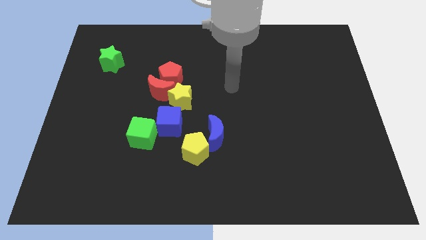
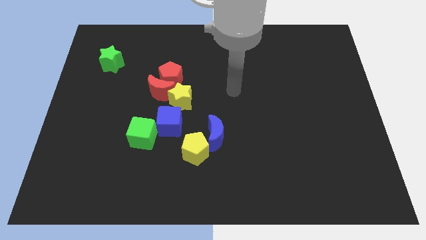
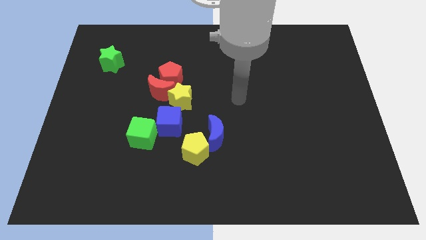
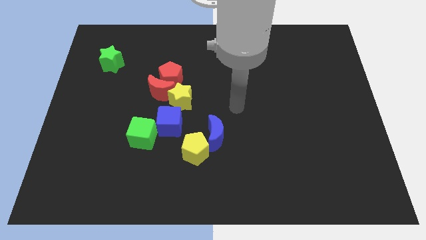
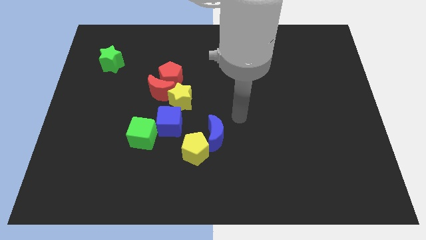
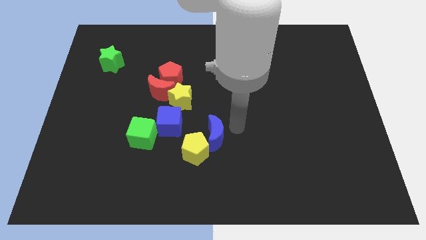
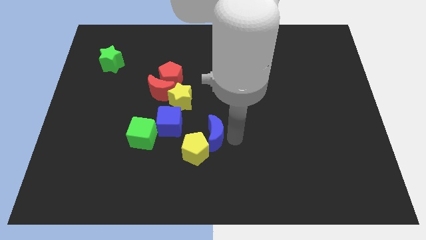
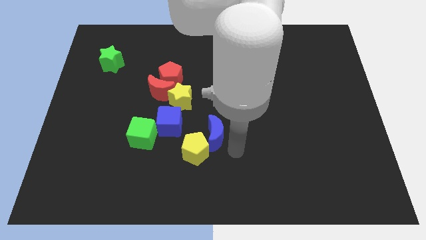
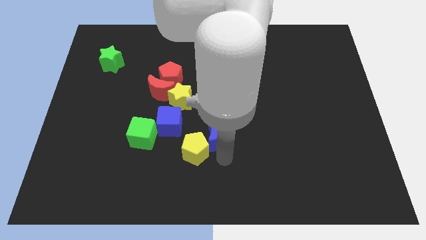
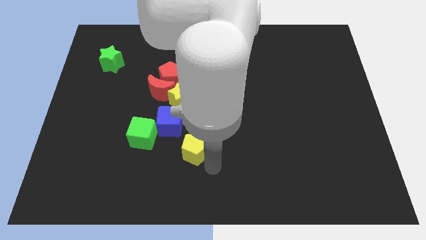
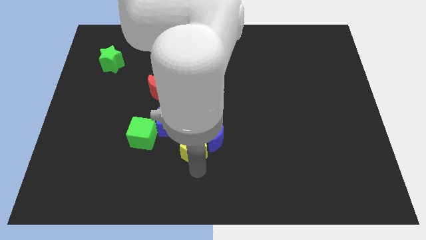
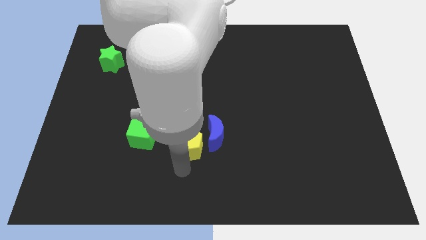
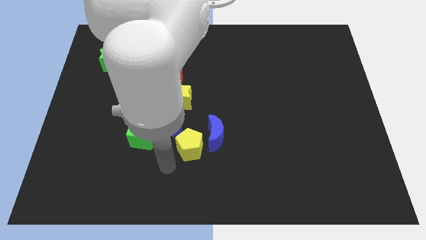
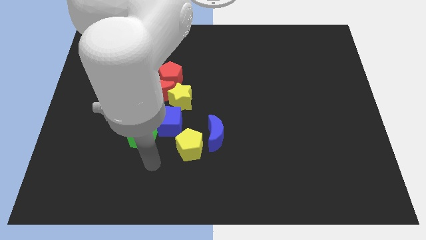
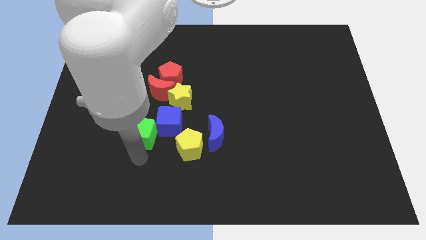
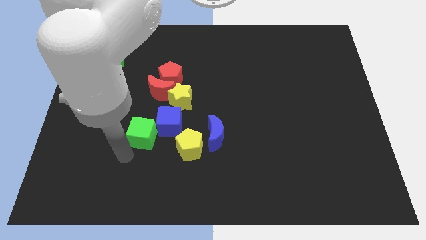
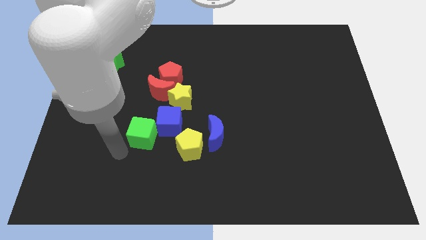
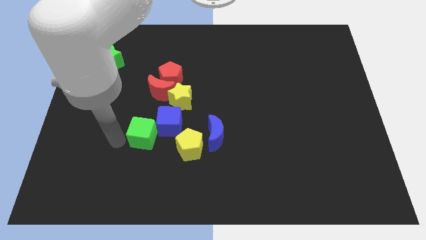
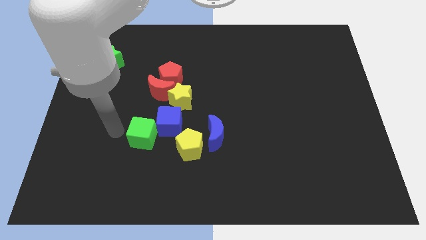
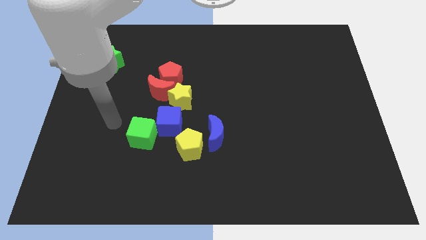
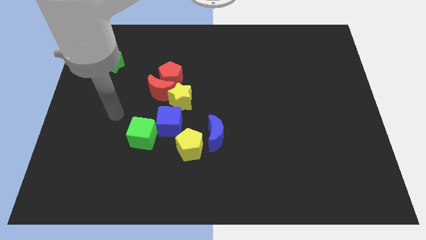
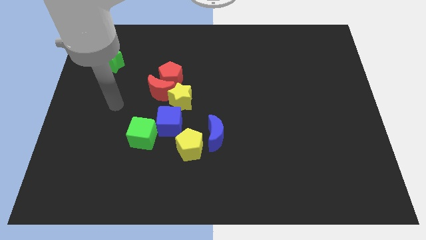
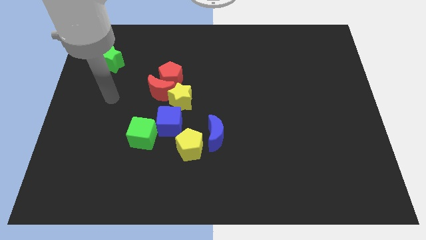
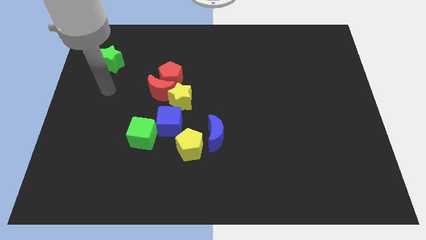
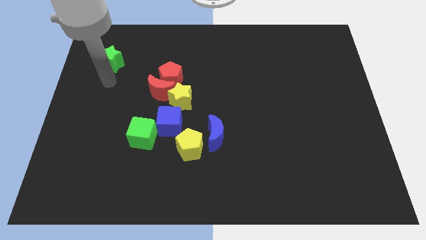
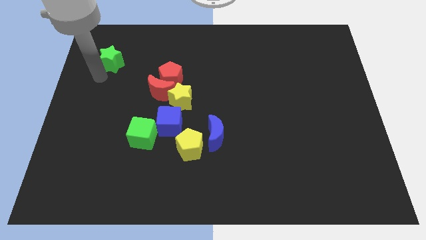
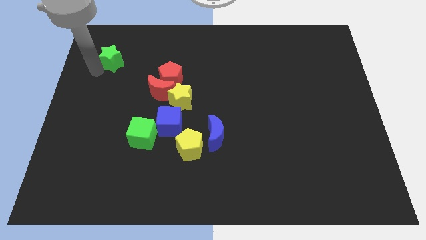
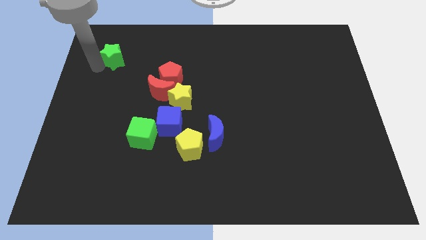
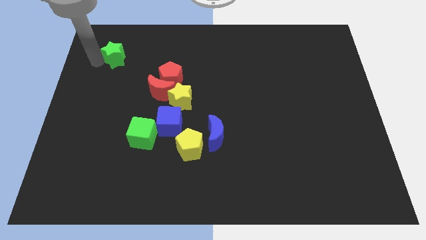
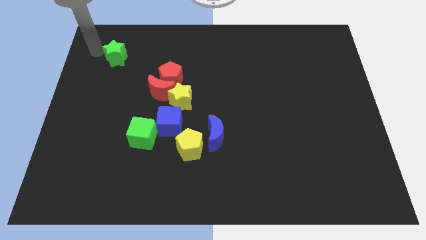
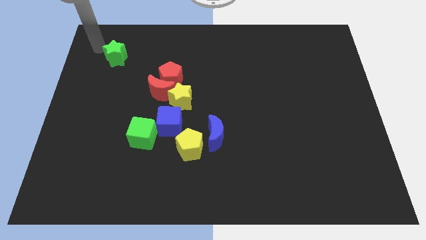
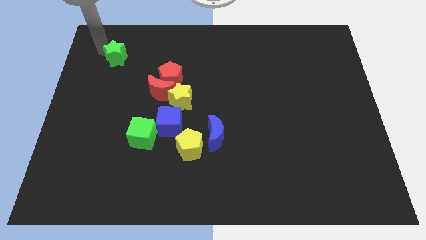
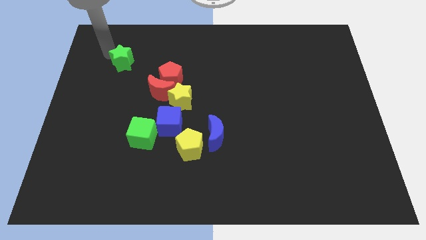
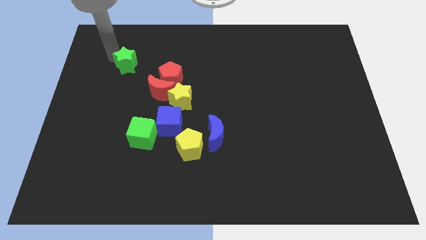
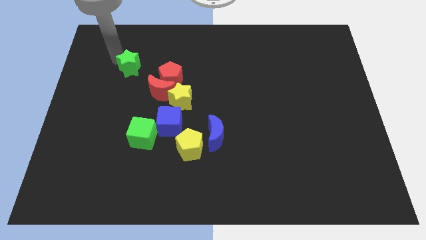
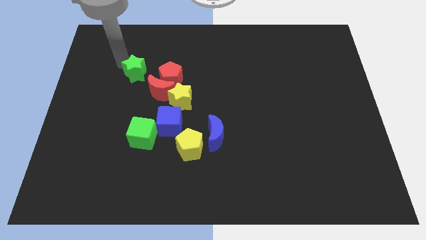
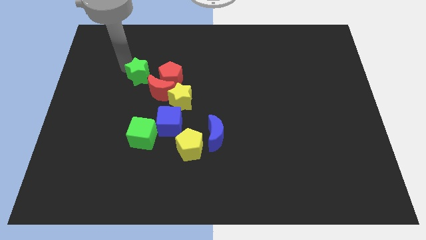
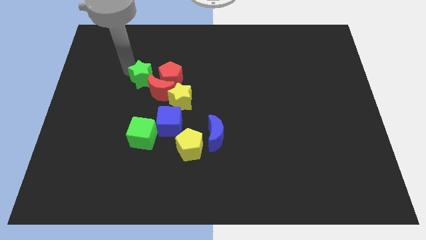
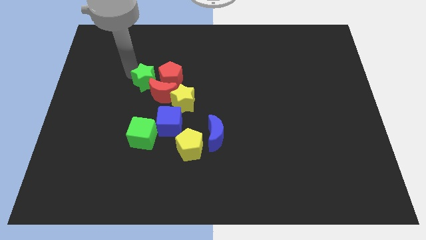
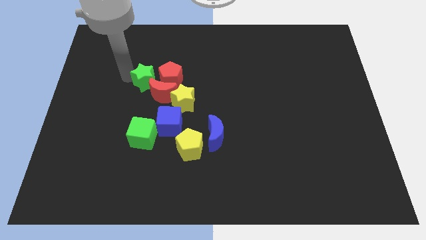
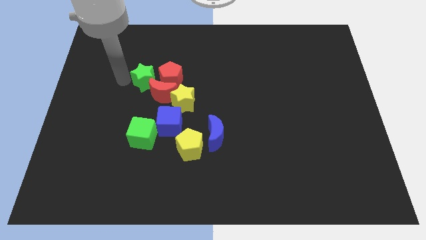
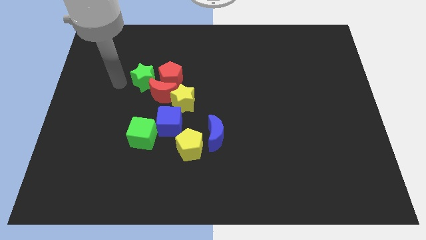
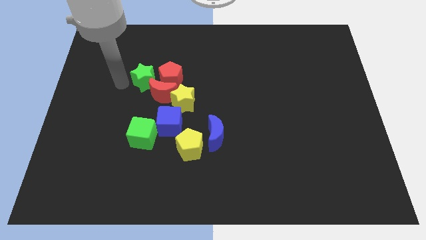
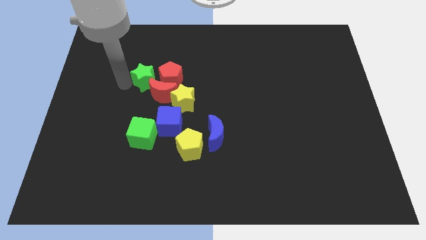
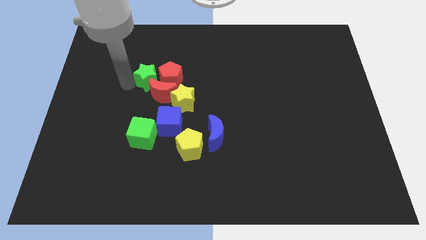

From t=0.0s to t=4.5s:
push the green star close to the red pentagon

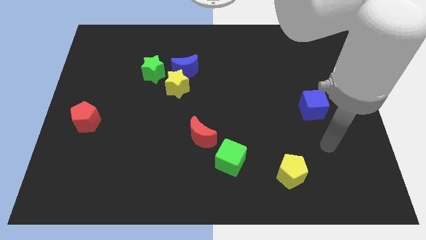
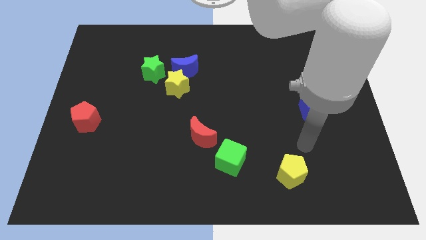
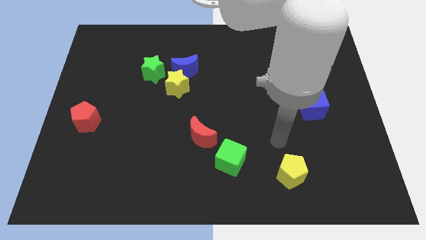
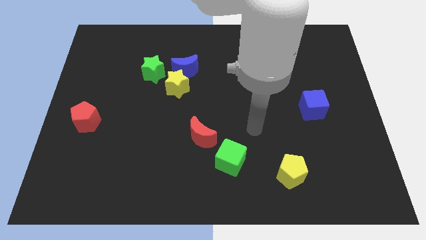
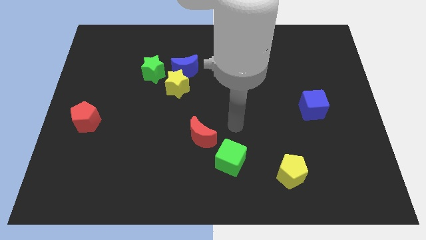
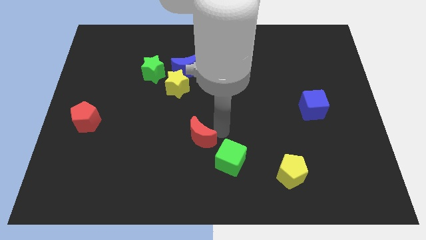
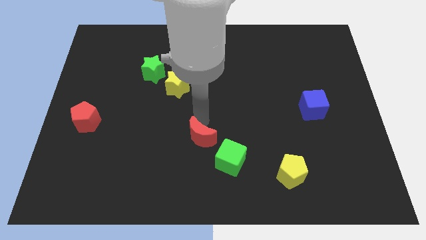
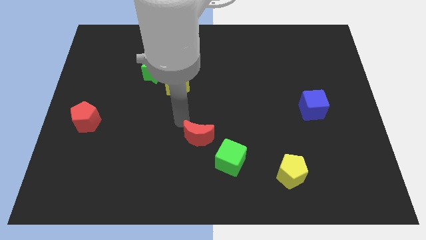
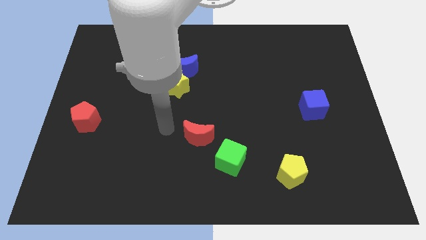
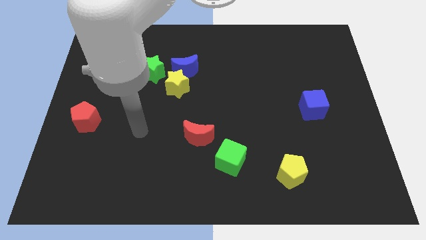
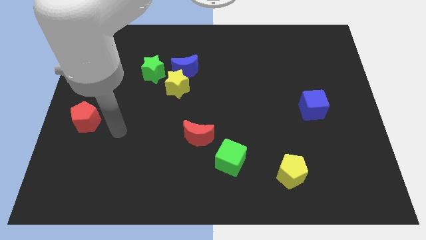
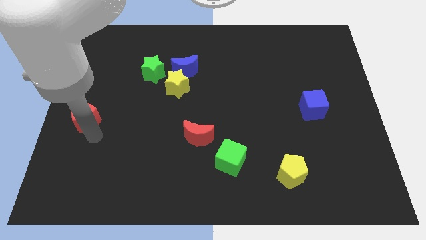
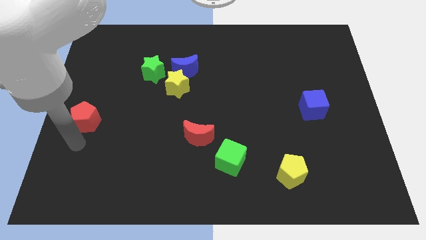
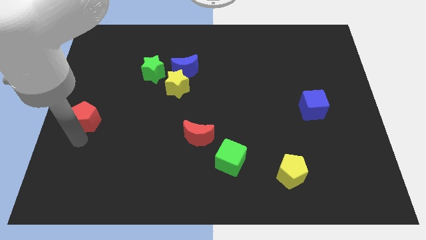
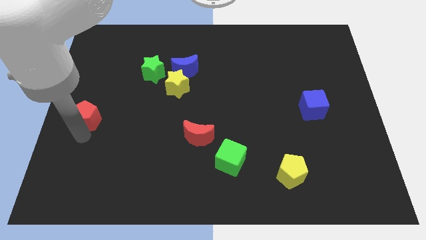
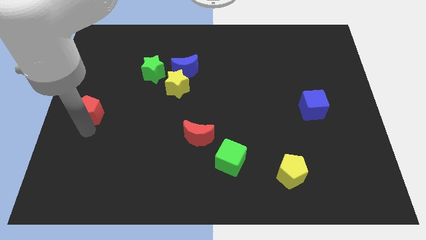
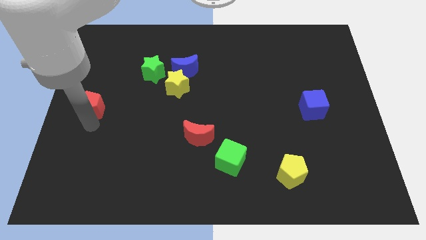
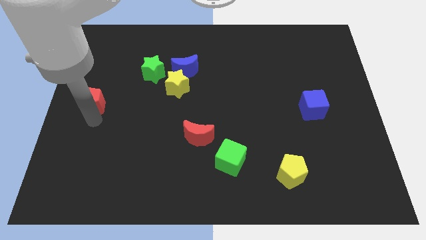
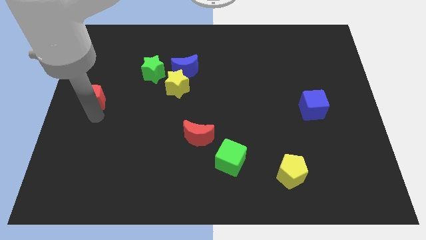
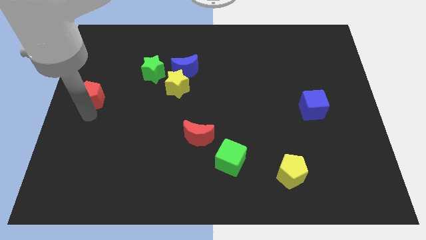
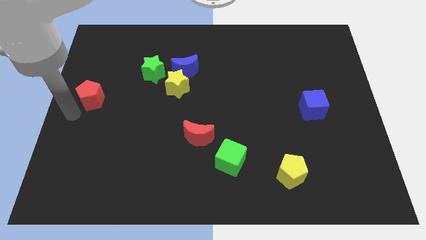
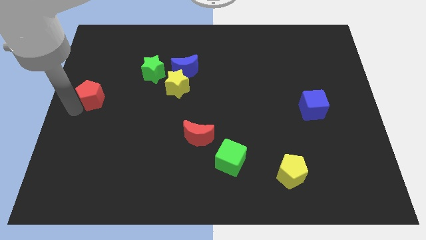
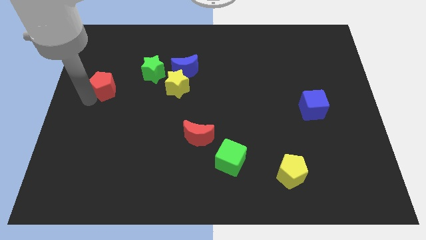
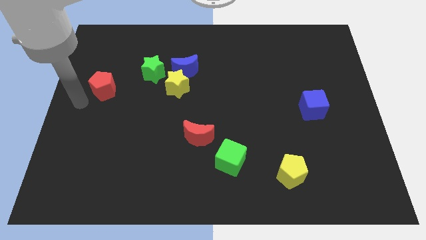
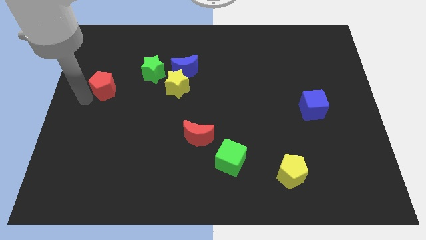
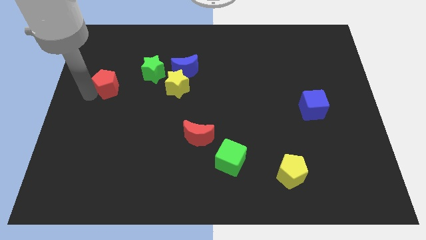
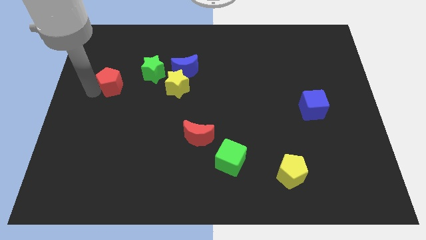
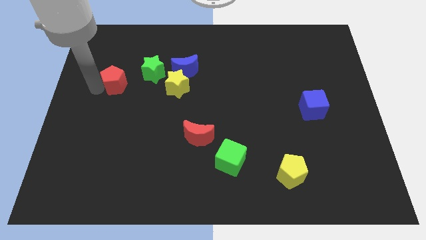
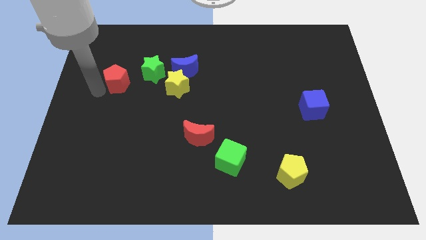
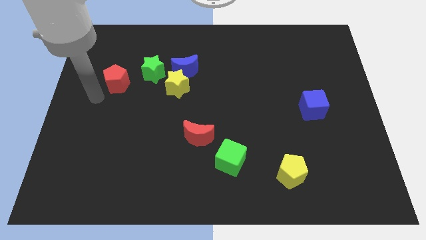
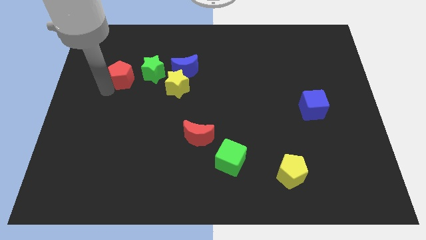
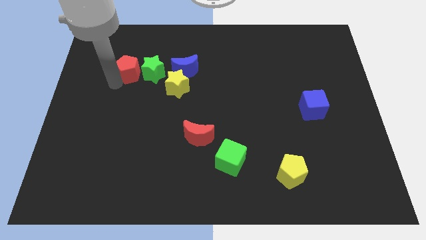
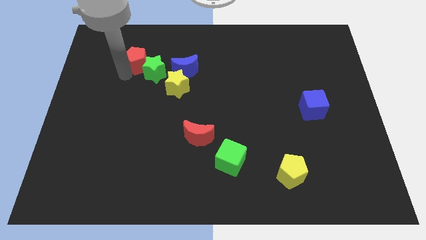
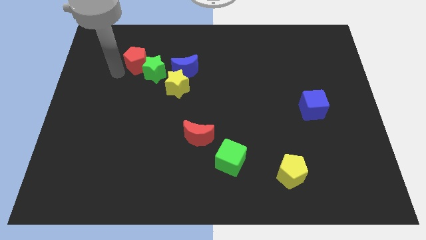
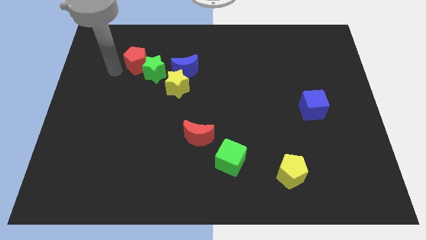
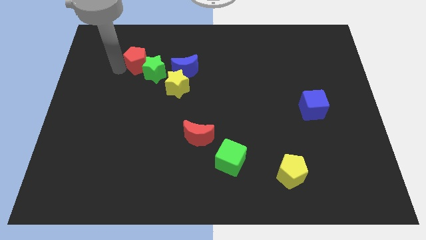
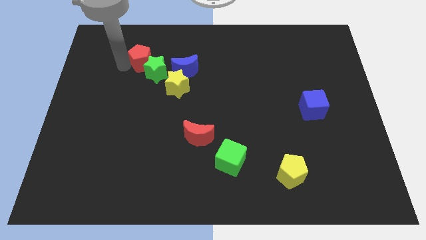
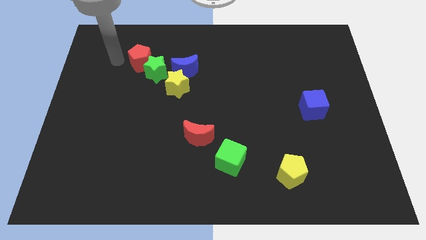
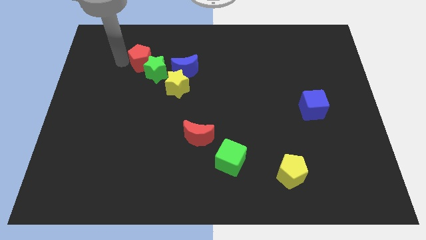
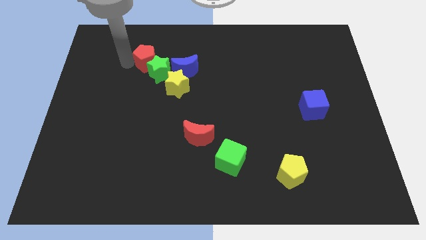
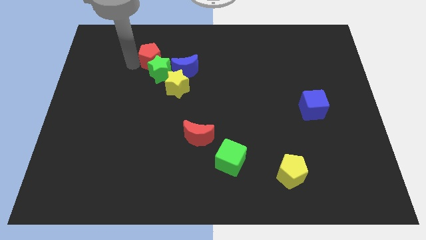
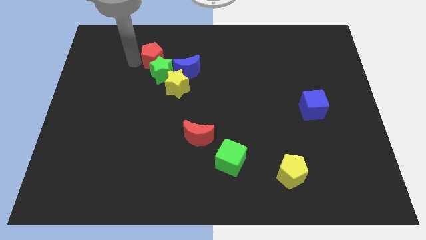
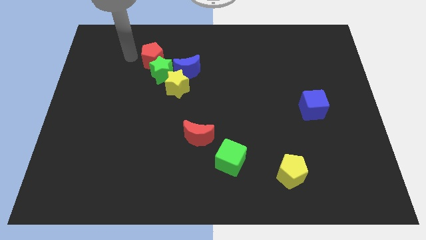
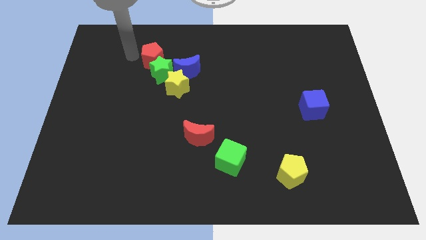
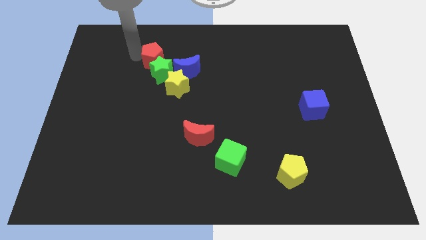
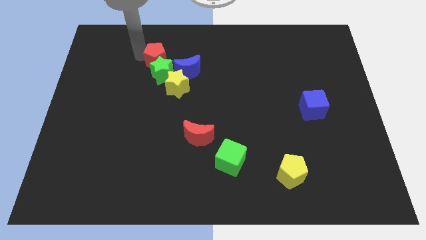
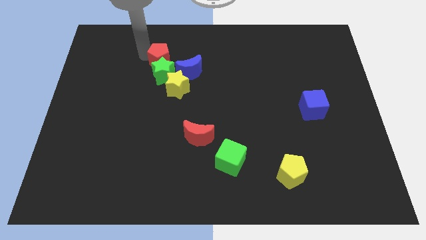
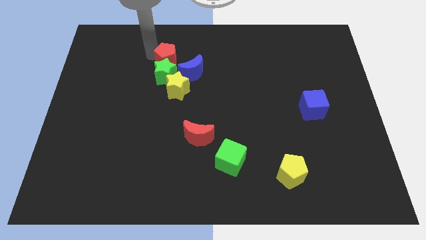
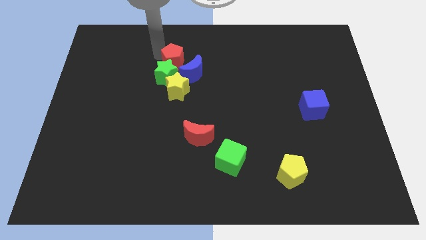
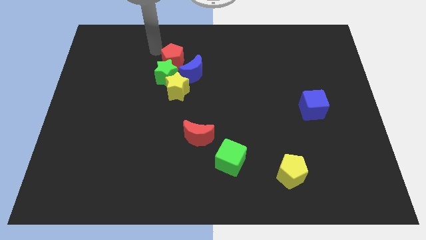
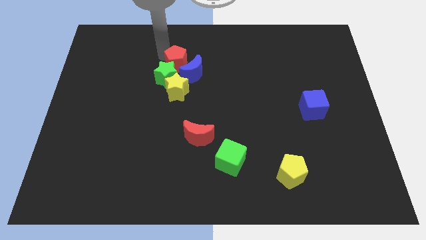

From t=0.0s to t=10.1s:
slide the red pentagon towards the blue moon
